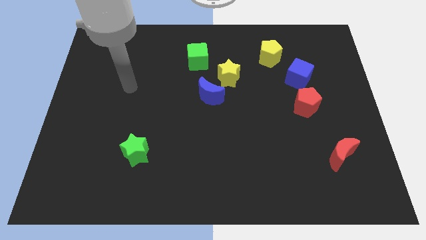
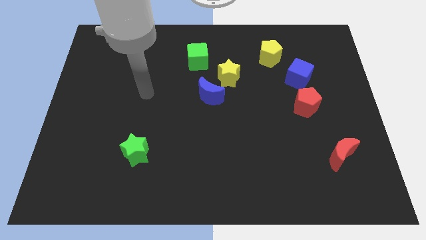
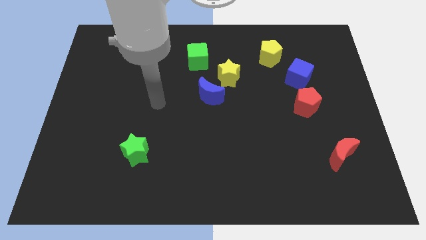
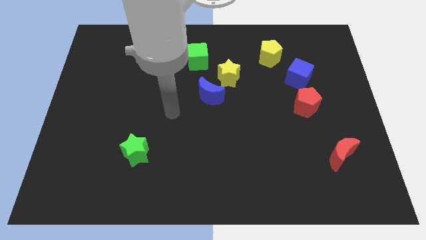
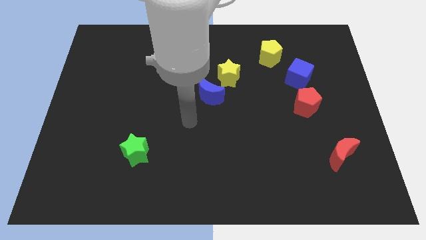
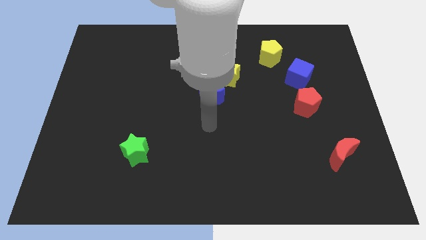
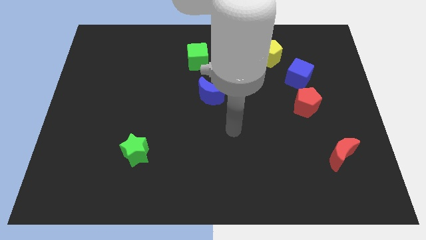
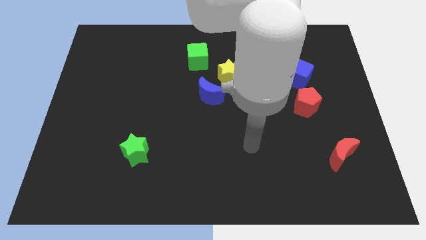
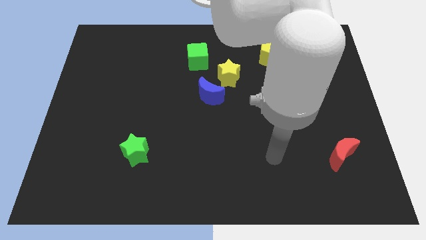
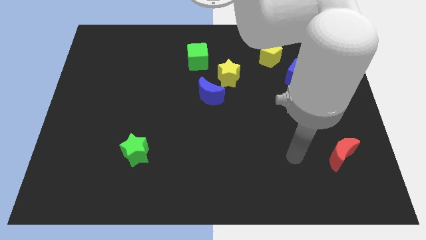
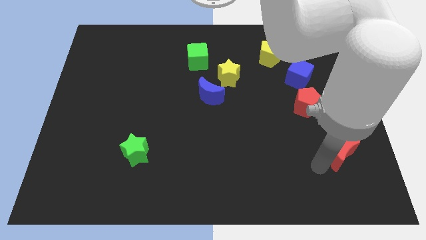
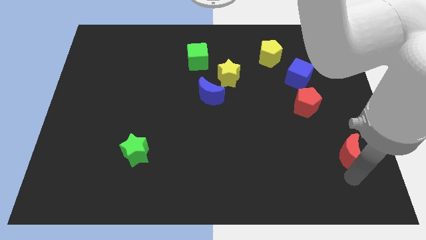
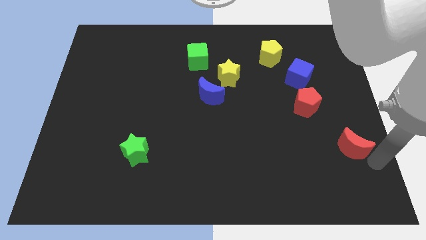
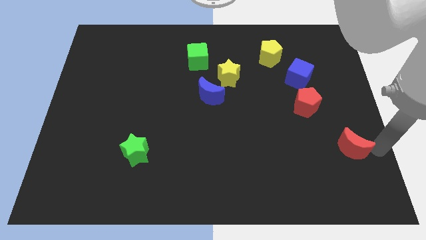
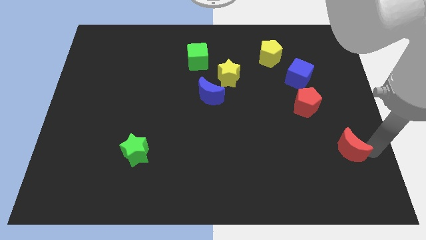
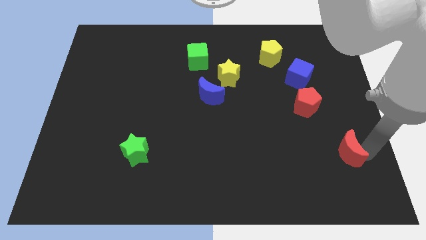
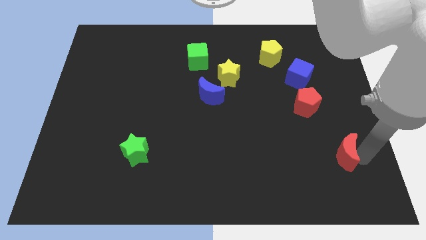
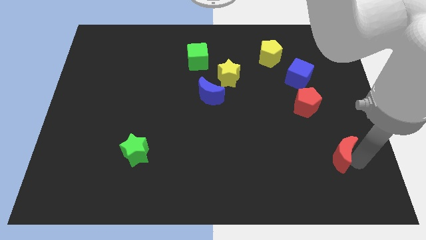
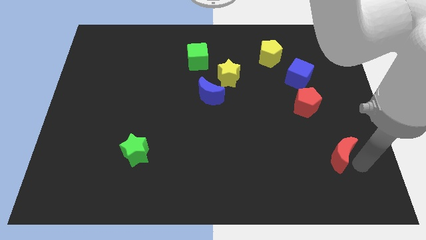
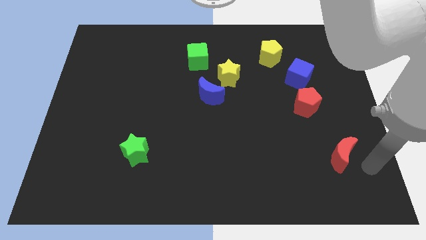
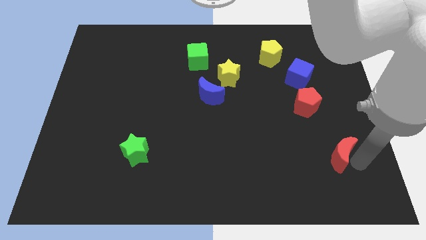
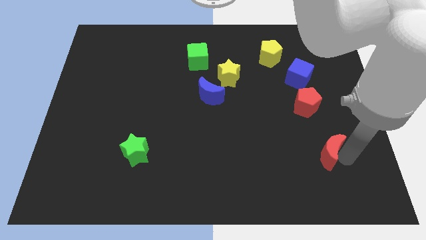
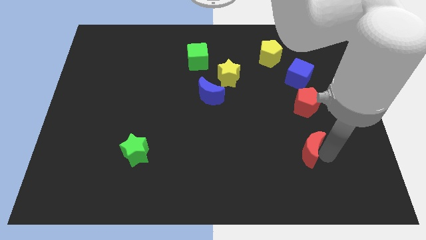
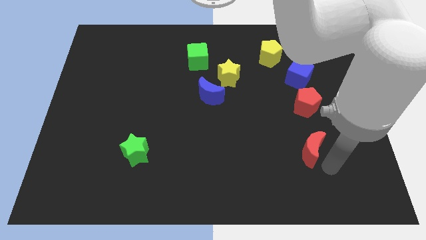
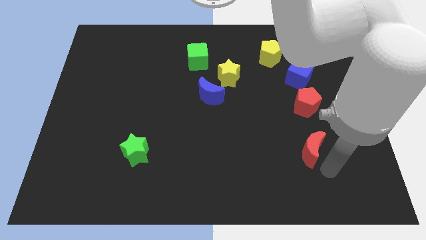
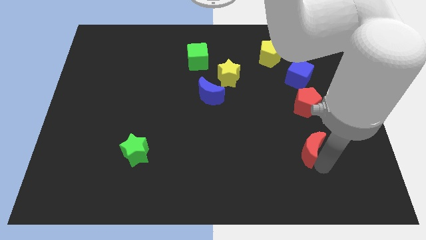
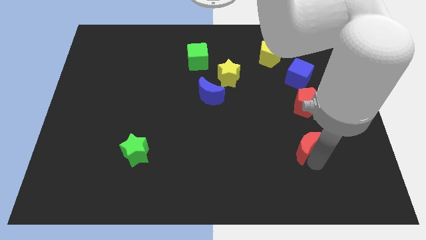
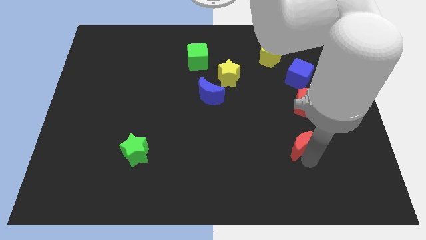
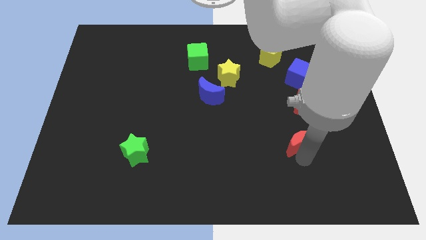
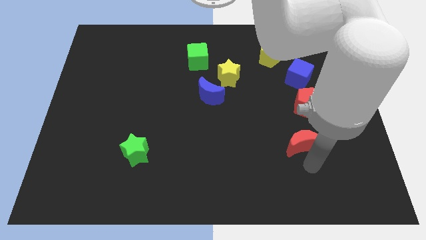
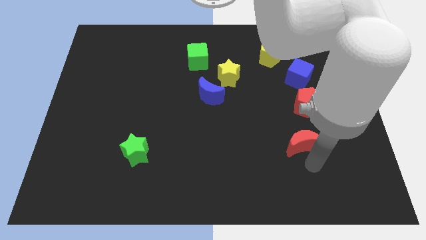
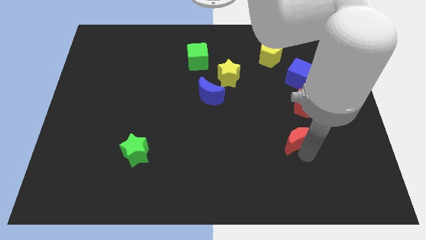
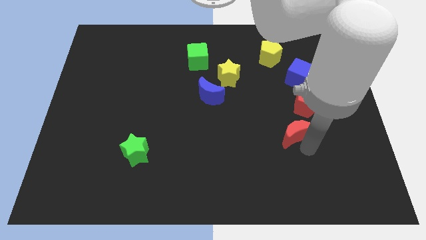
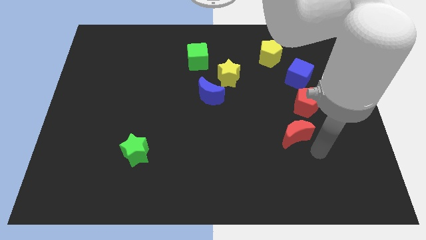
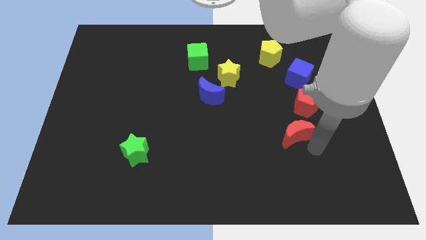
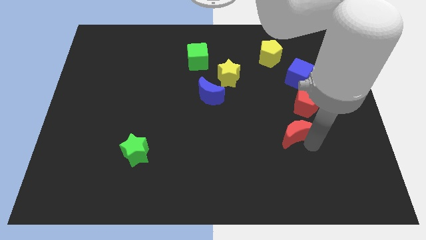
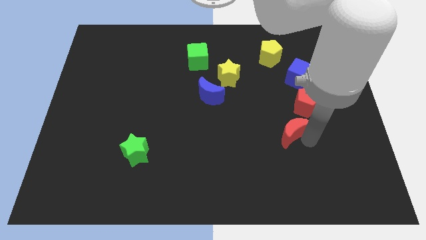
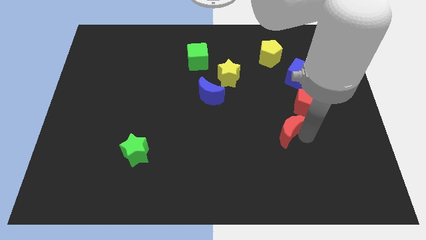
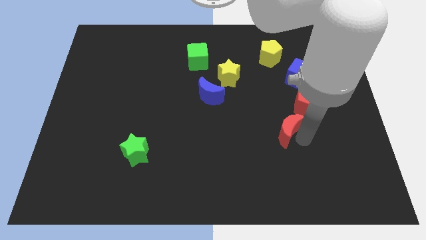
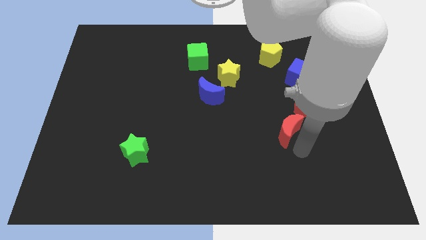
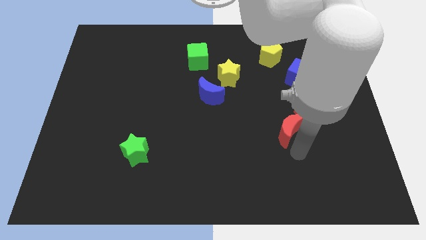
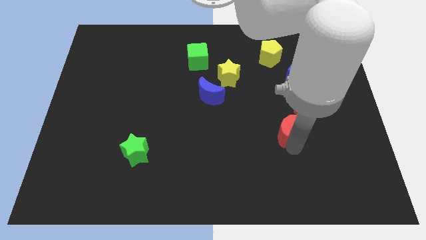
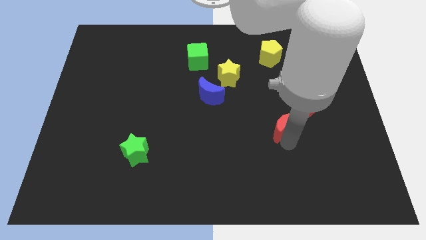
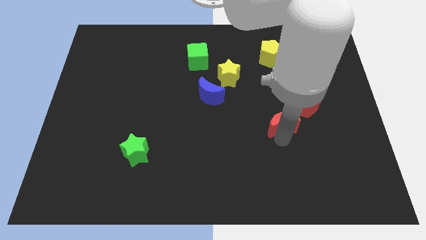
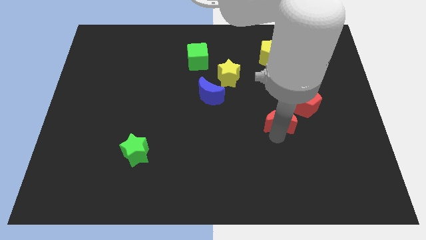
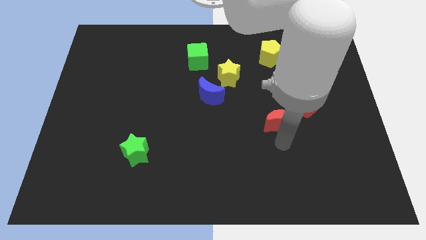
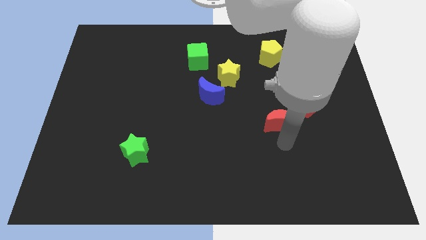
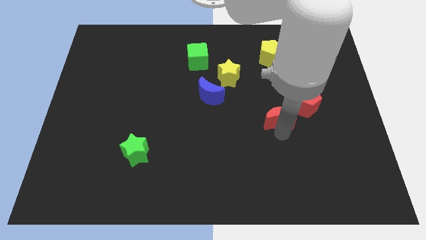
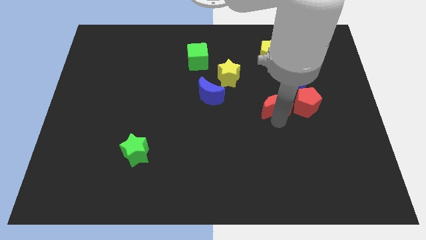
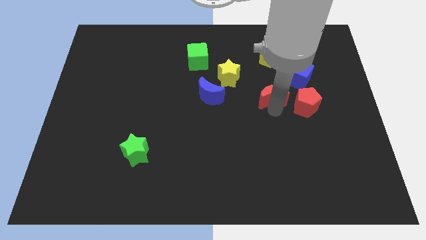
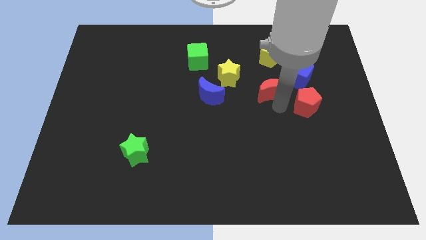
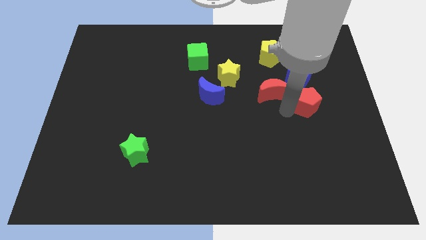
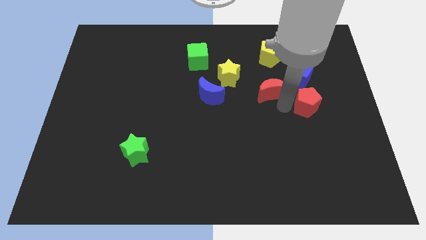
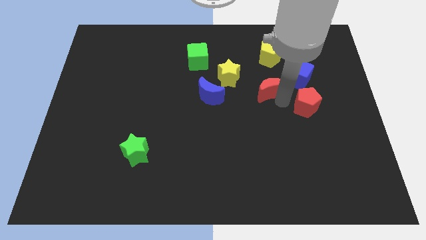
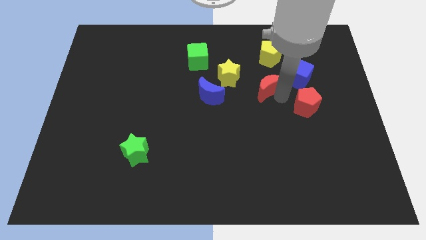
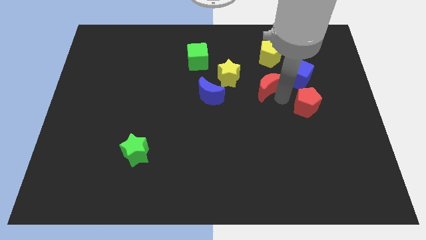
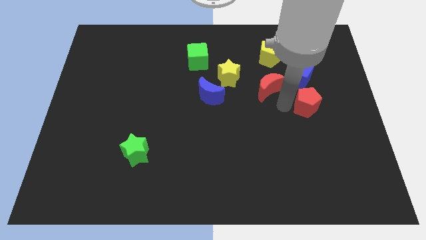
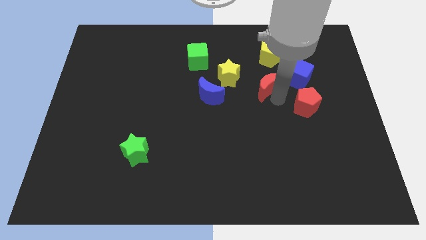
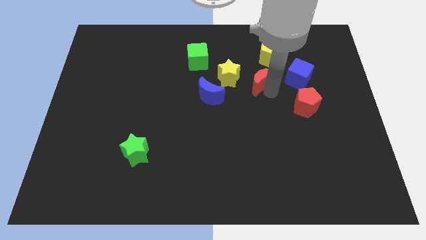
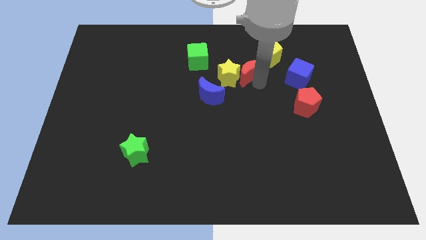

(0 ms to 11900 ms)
push the red moon diagonally up and to the right of the yellow star

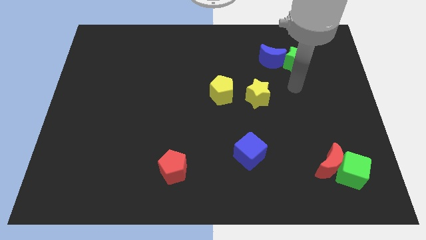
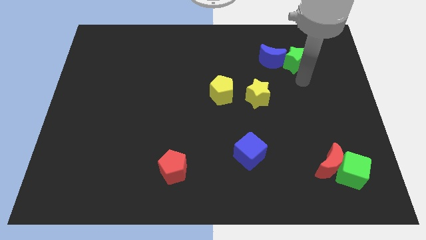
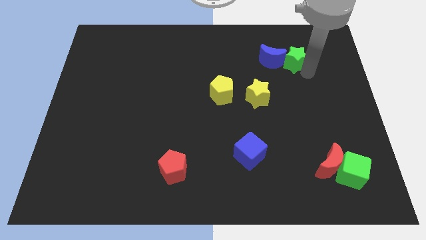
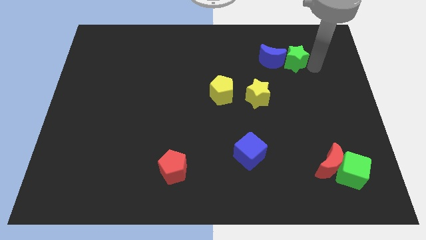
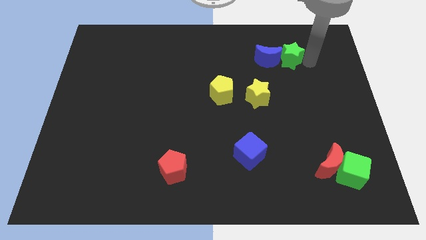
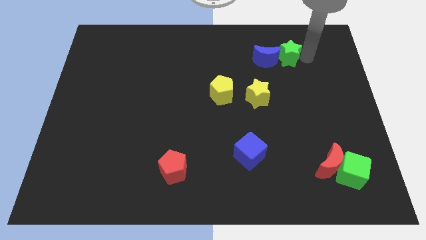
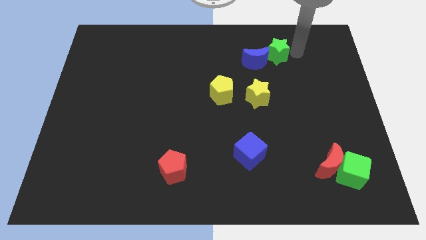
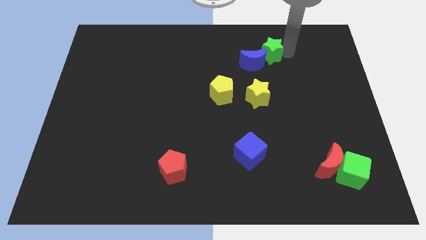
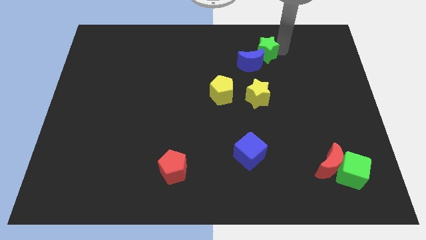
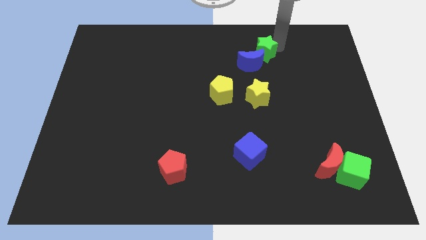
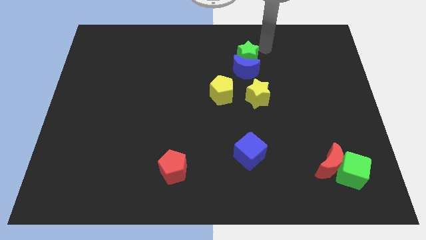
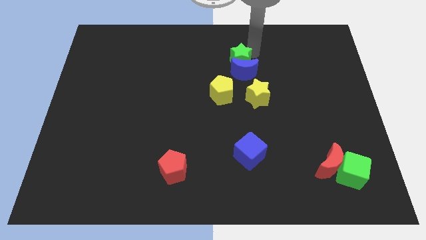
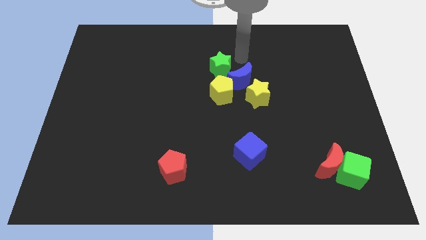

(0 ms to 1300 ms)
push the blue moon to the right of the yellow pentagon
